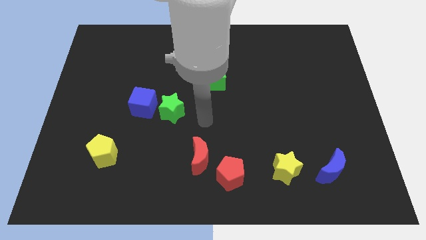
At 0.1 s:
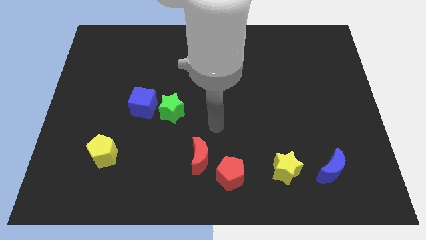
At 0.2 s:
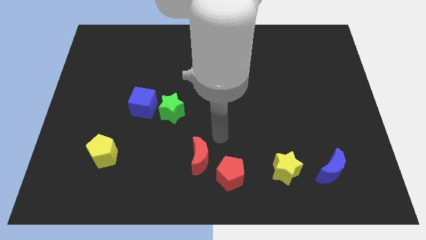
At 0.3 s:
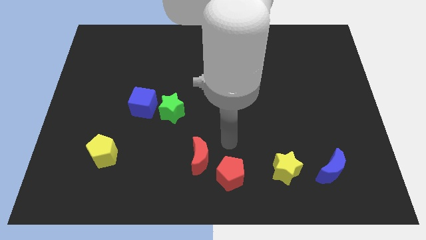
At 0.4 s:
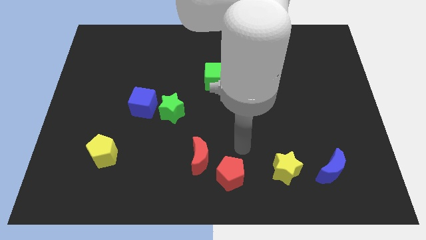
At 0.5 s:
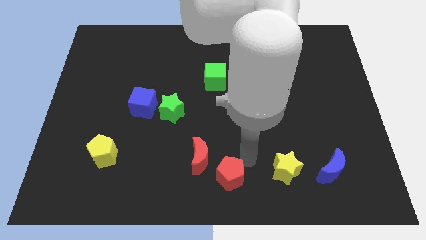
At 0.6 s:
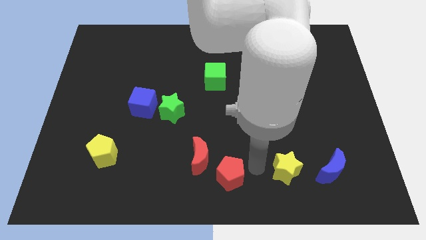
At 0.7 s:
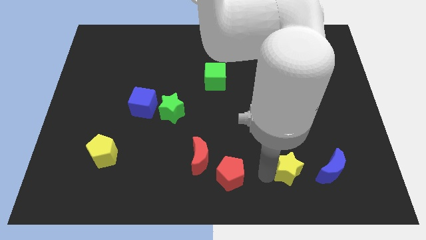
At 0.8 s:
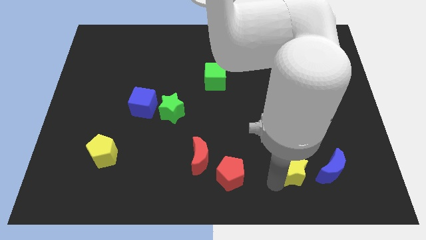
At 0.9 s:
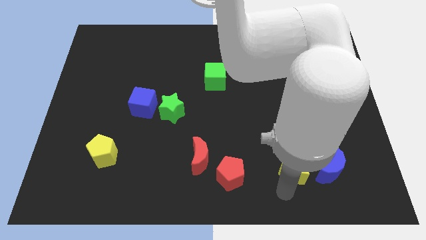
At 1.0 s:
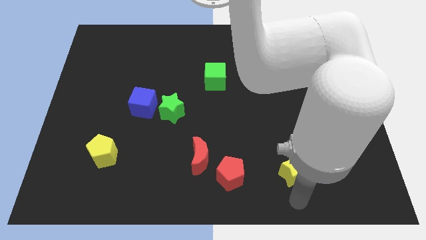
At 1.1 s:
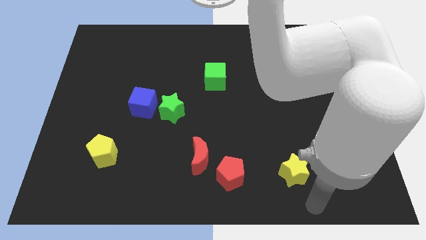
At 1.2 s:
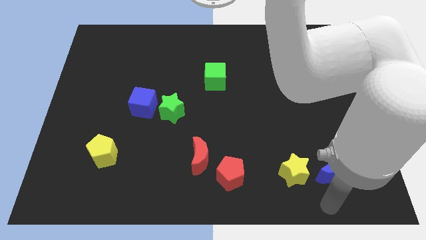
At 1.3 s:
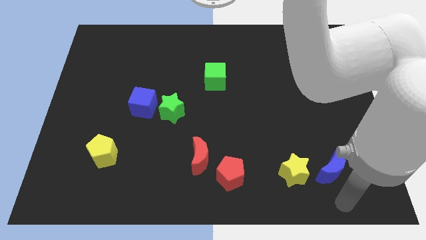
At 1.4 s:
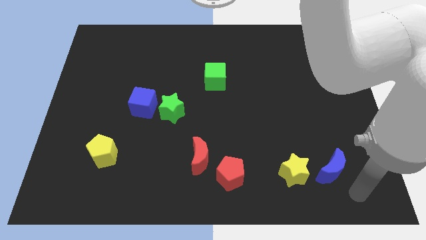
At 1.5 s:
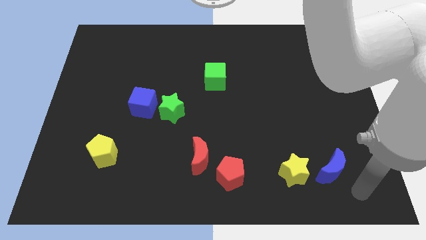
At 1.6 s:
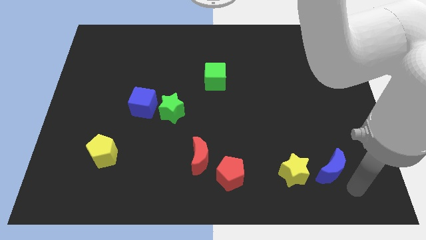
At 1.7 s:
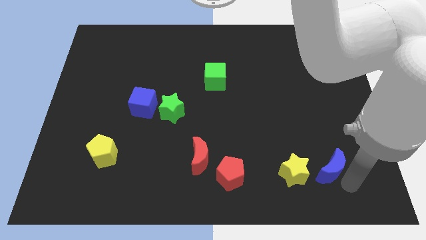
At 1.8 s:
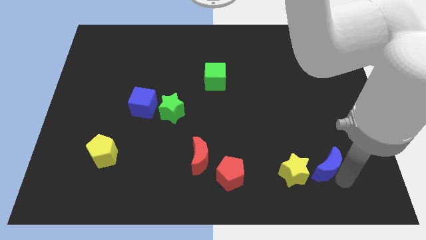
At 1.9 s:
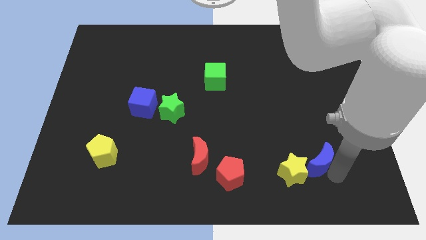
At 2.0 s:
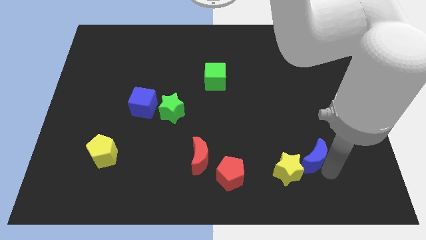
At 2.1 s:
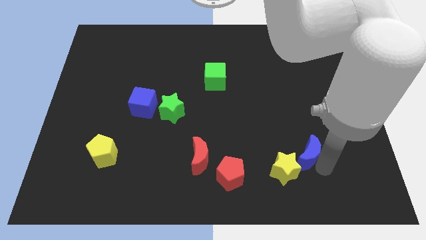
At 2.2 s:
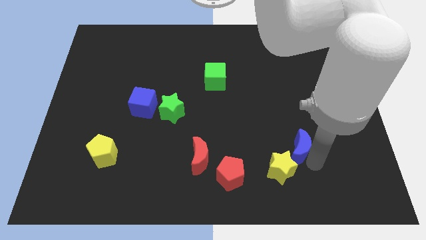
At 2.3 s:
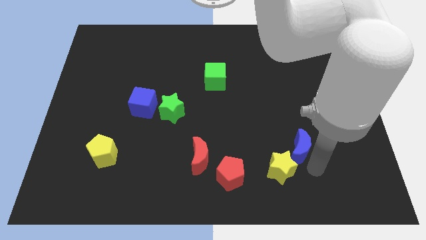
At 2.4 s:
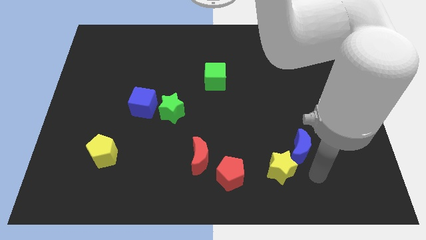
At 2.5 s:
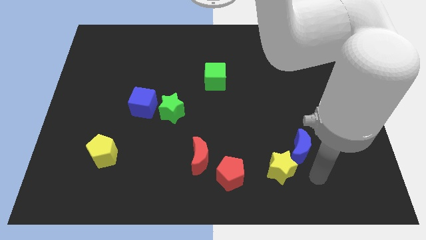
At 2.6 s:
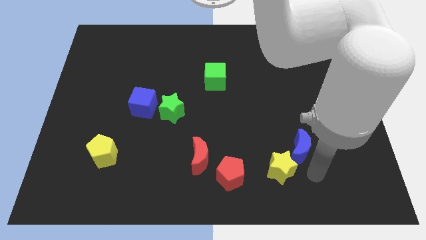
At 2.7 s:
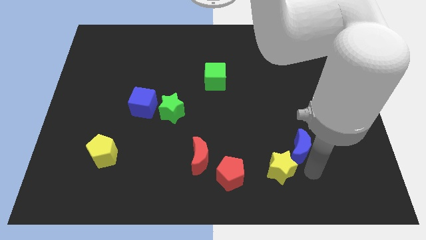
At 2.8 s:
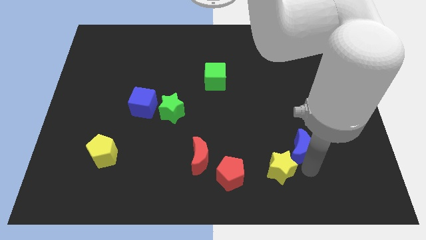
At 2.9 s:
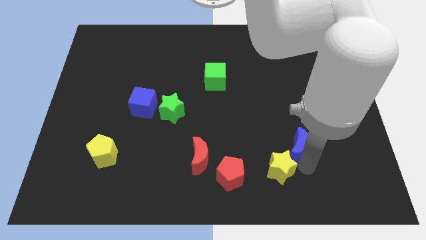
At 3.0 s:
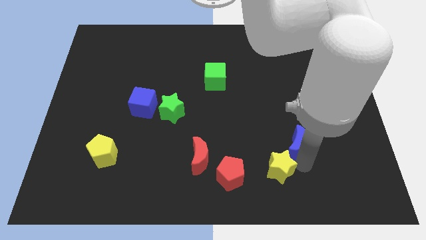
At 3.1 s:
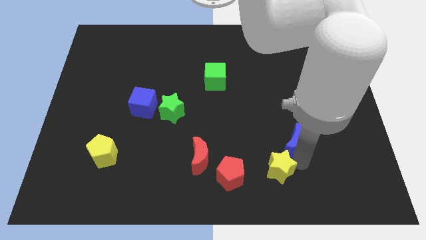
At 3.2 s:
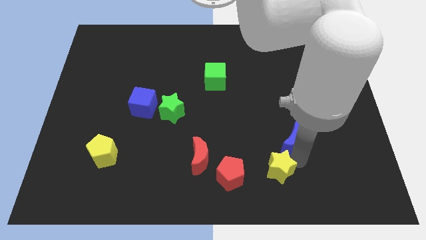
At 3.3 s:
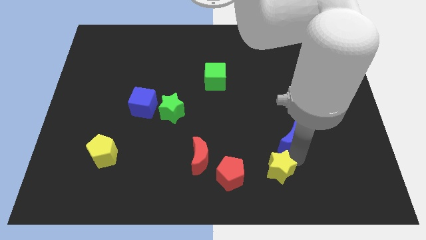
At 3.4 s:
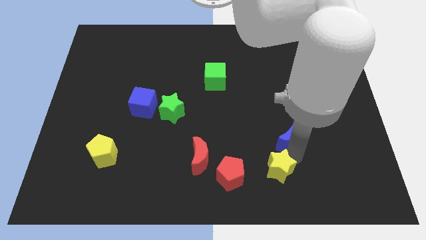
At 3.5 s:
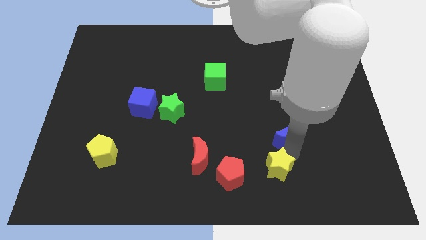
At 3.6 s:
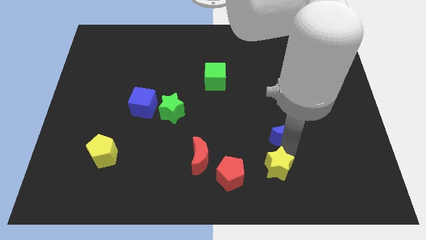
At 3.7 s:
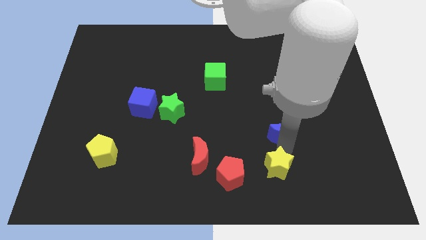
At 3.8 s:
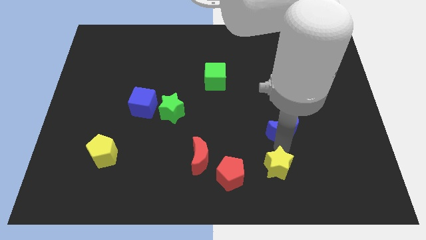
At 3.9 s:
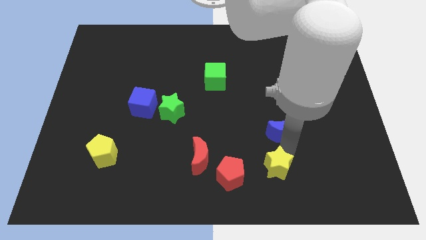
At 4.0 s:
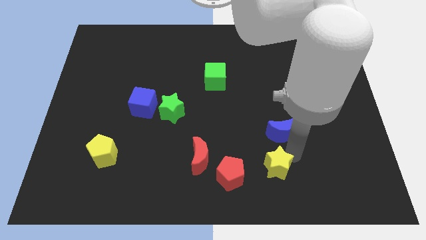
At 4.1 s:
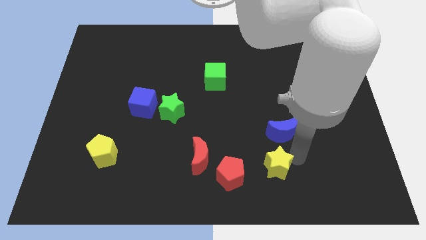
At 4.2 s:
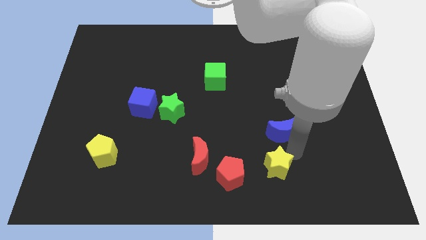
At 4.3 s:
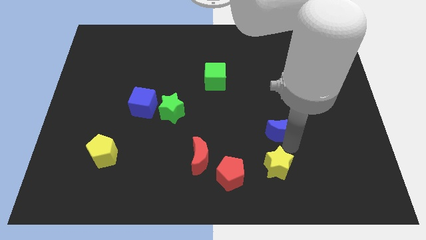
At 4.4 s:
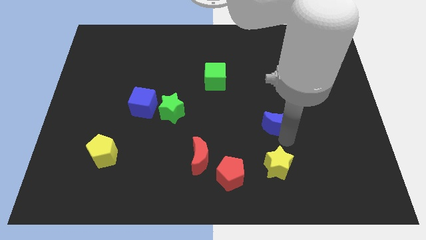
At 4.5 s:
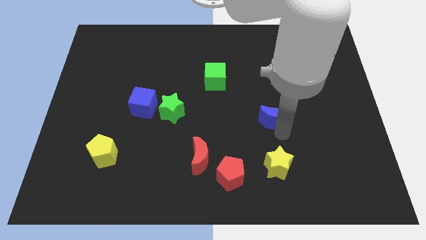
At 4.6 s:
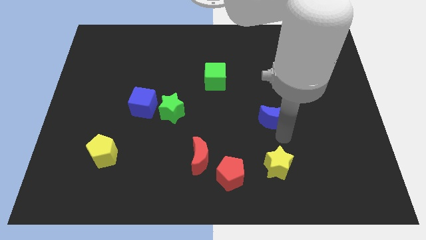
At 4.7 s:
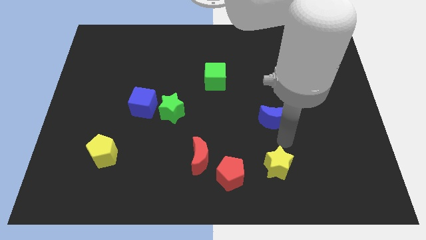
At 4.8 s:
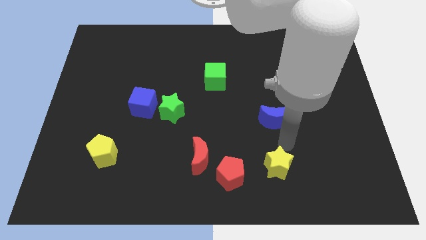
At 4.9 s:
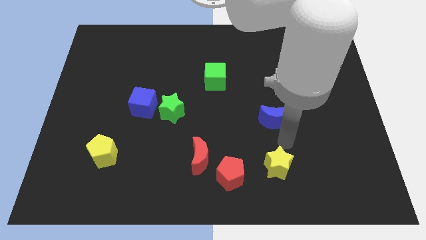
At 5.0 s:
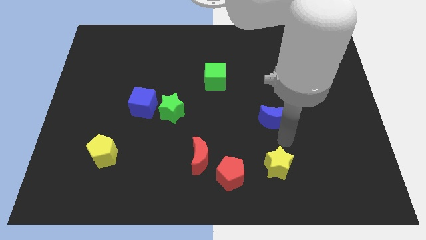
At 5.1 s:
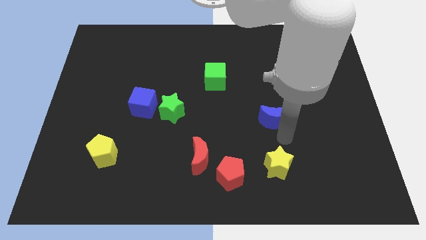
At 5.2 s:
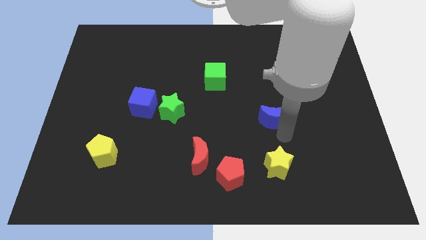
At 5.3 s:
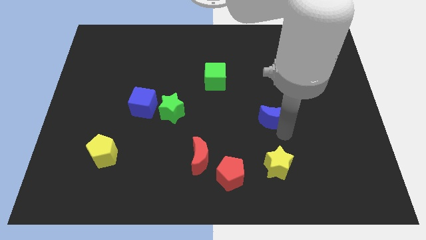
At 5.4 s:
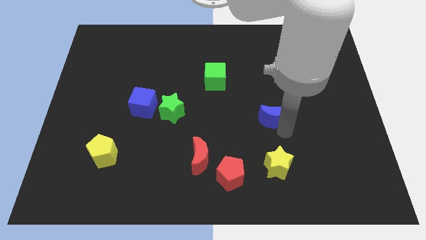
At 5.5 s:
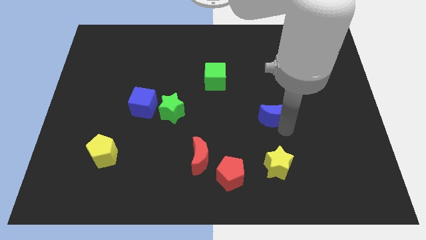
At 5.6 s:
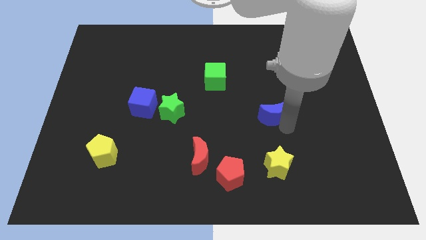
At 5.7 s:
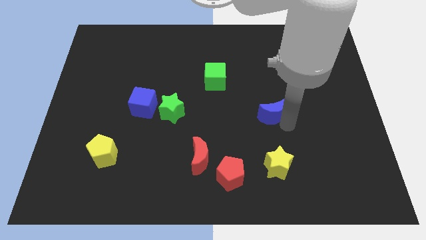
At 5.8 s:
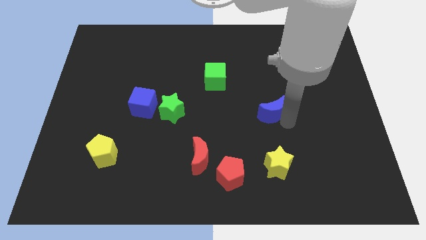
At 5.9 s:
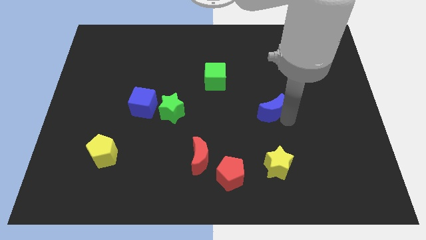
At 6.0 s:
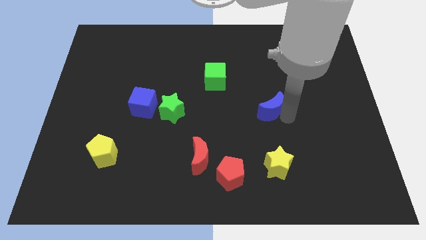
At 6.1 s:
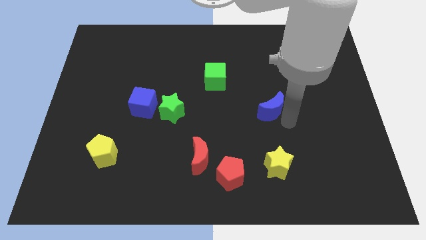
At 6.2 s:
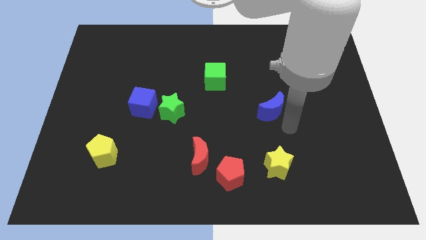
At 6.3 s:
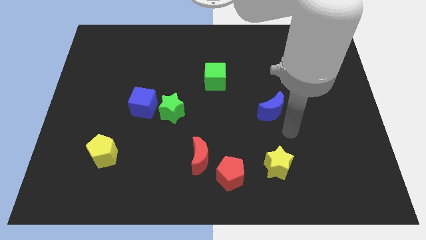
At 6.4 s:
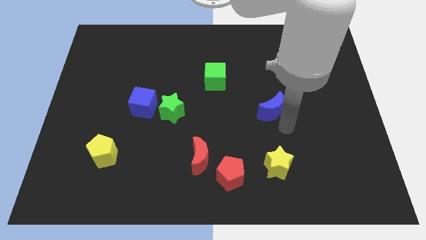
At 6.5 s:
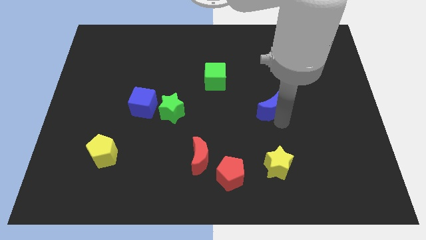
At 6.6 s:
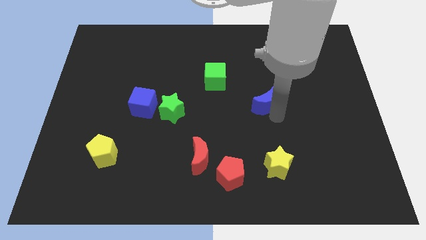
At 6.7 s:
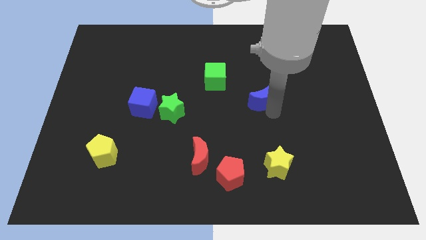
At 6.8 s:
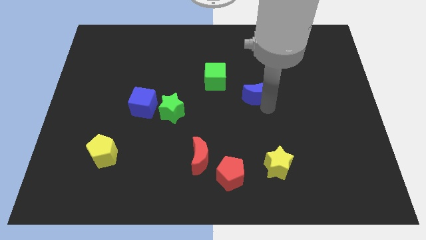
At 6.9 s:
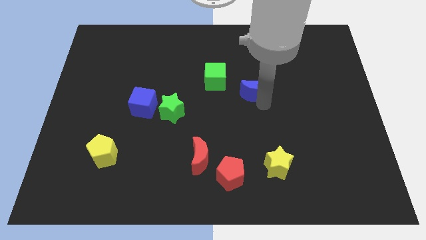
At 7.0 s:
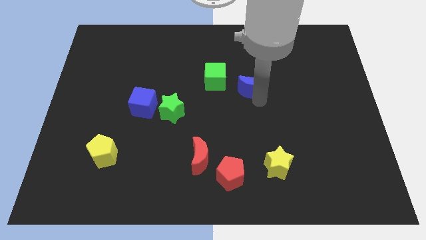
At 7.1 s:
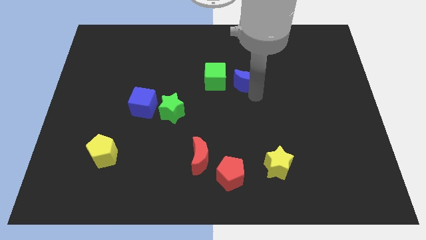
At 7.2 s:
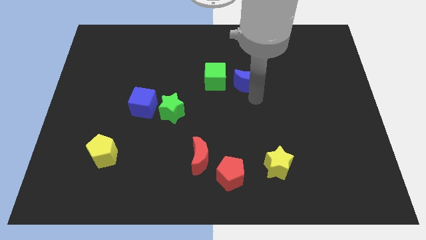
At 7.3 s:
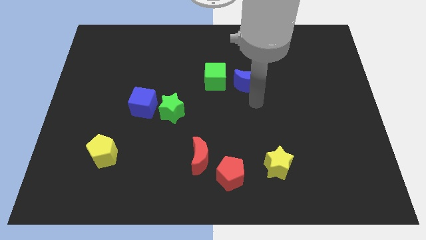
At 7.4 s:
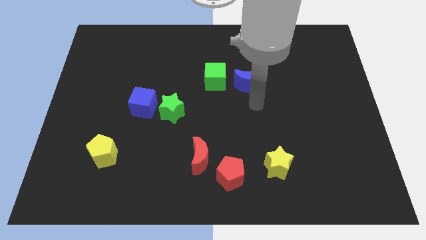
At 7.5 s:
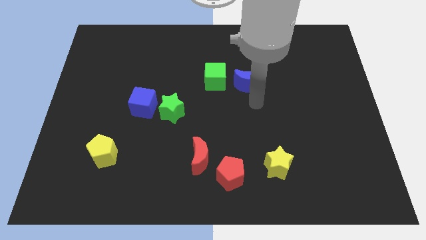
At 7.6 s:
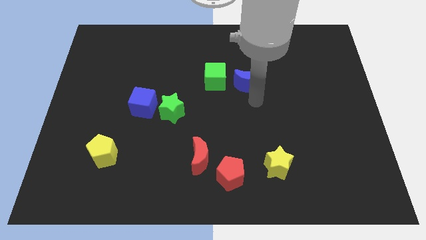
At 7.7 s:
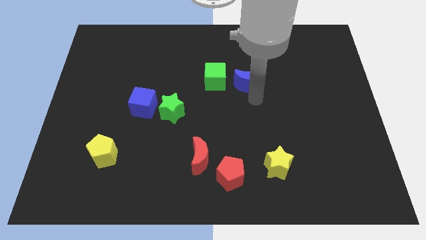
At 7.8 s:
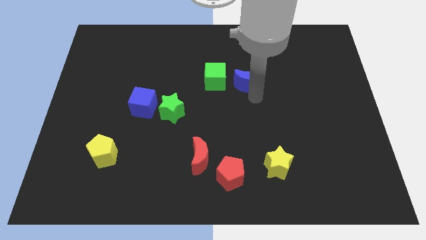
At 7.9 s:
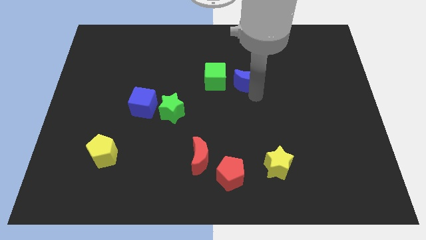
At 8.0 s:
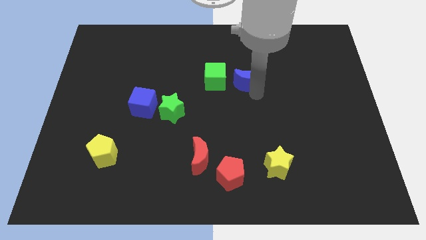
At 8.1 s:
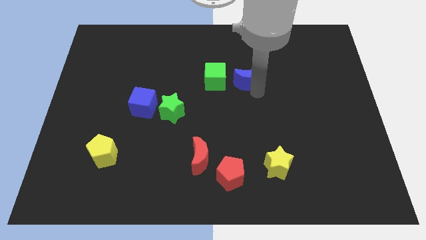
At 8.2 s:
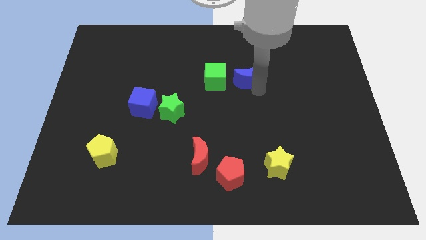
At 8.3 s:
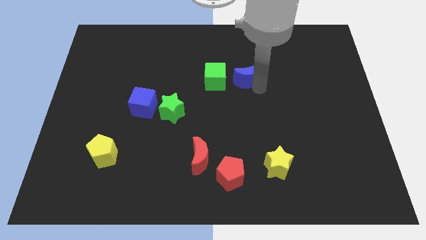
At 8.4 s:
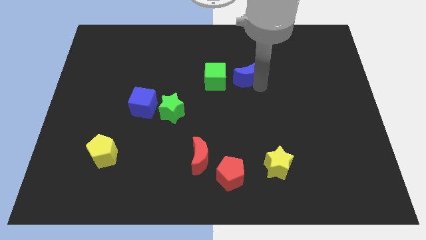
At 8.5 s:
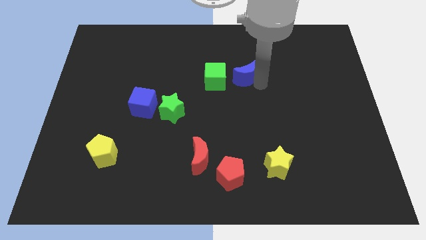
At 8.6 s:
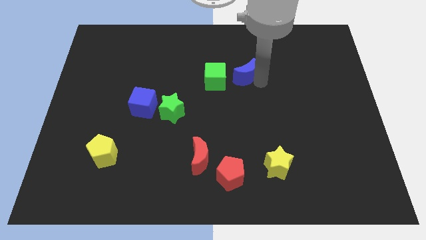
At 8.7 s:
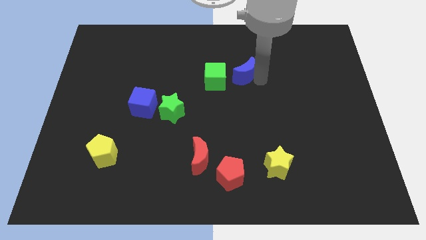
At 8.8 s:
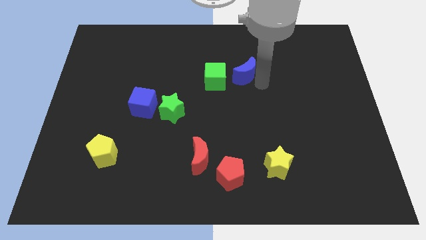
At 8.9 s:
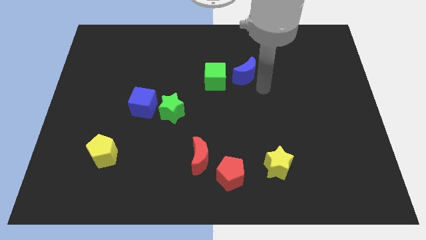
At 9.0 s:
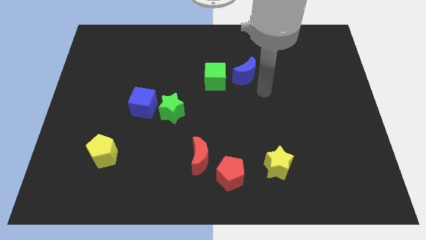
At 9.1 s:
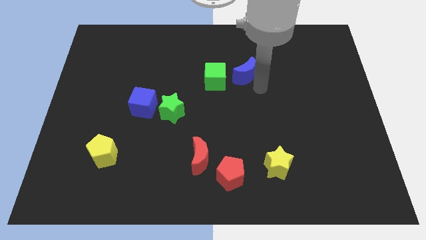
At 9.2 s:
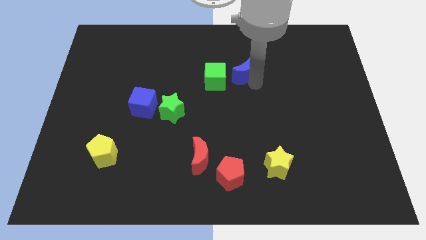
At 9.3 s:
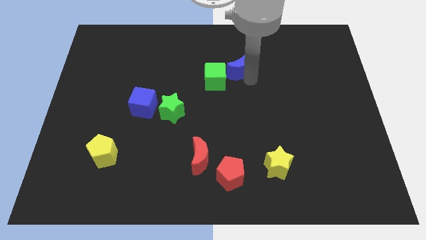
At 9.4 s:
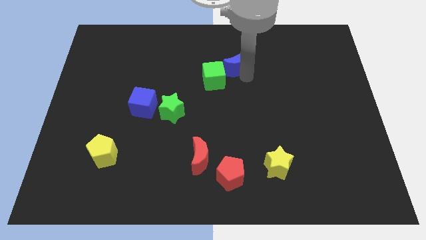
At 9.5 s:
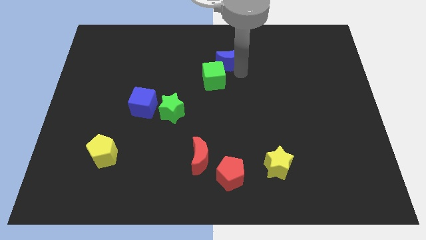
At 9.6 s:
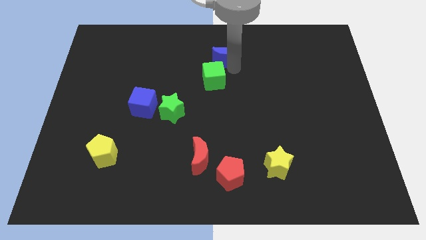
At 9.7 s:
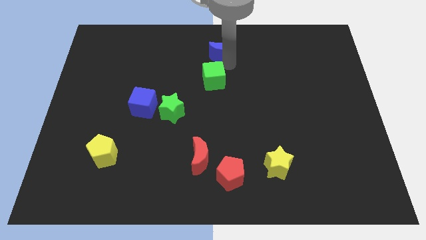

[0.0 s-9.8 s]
move the blue moon to the top side
